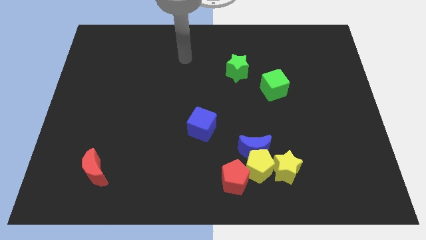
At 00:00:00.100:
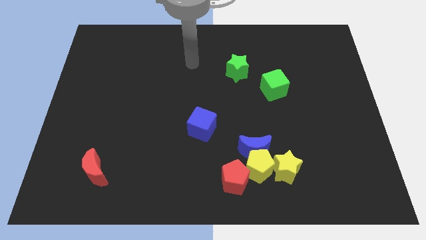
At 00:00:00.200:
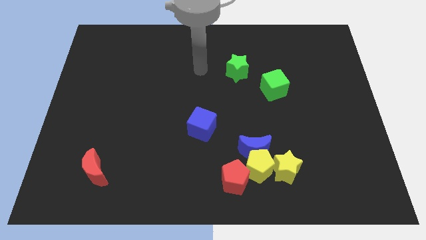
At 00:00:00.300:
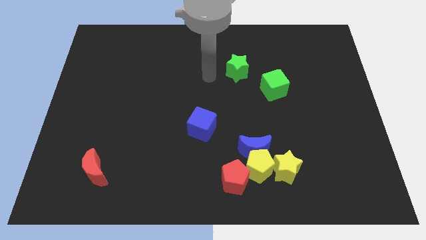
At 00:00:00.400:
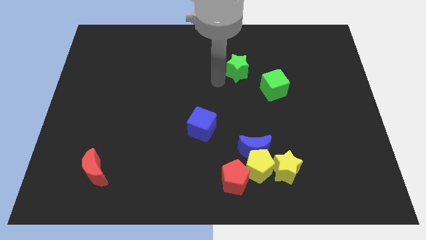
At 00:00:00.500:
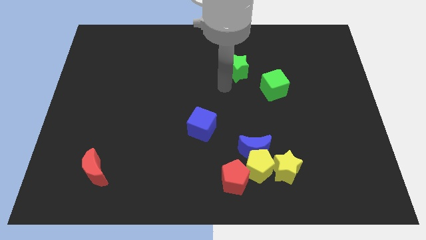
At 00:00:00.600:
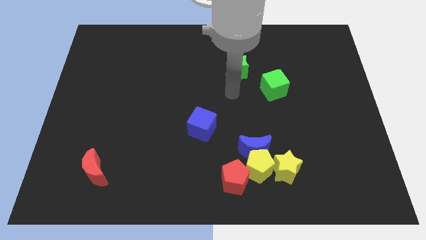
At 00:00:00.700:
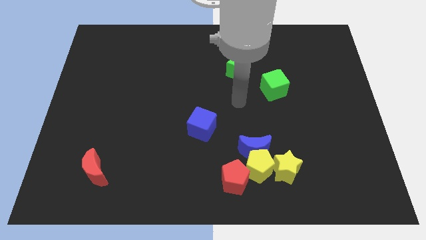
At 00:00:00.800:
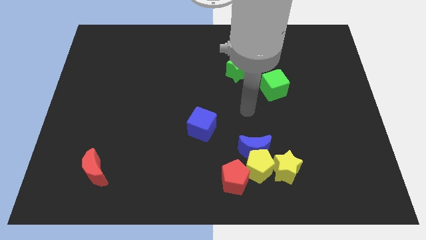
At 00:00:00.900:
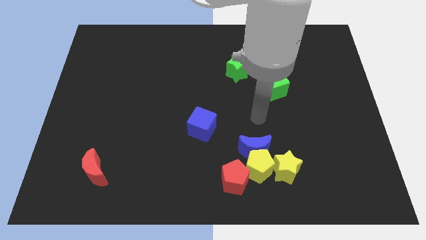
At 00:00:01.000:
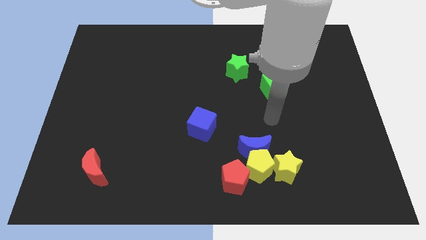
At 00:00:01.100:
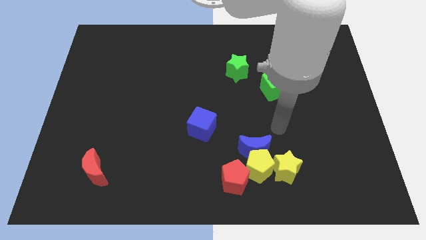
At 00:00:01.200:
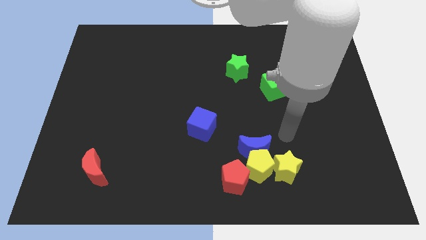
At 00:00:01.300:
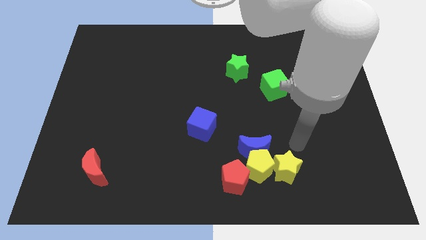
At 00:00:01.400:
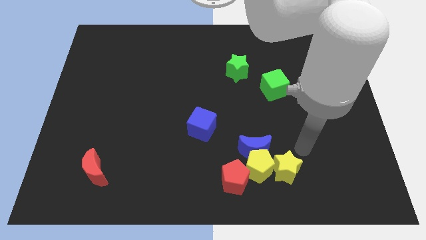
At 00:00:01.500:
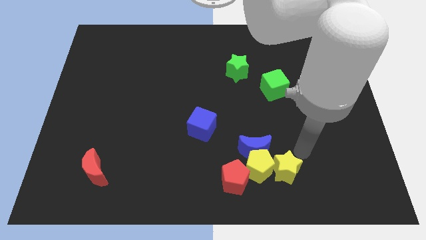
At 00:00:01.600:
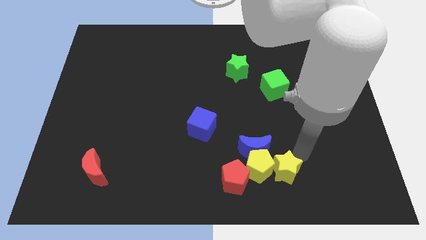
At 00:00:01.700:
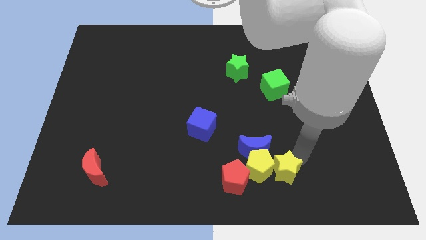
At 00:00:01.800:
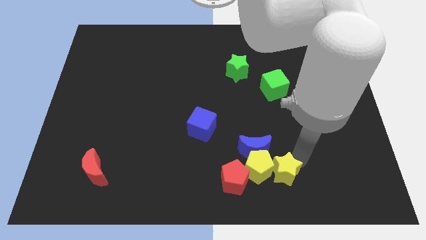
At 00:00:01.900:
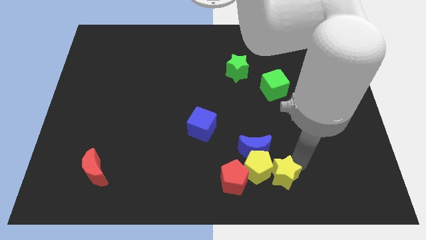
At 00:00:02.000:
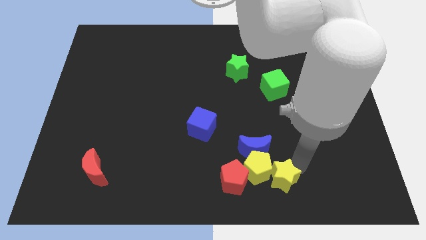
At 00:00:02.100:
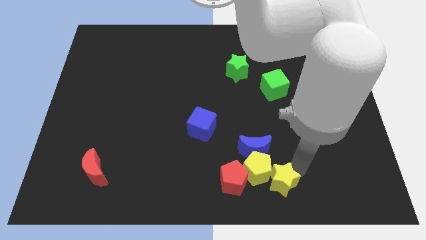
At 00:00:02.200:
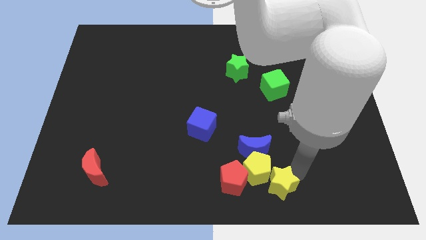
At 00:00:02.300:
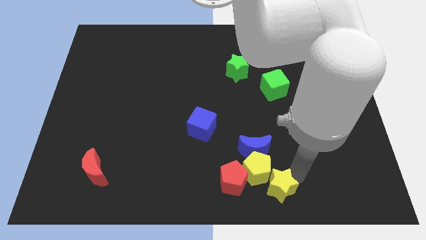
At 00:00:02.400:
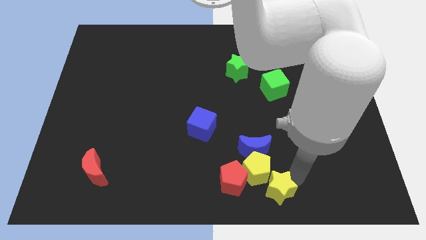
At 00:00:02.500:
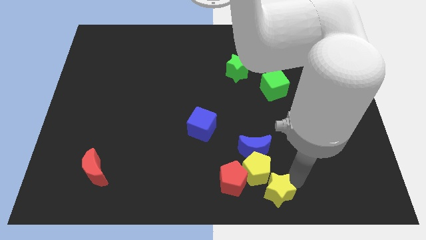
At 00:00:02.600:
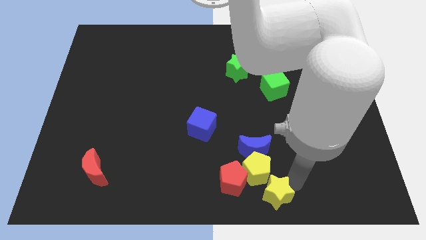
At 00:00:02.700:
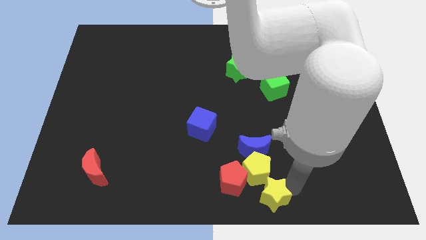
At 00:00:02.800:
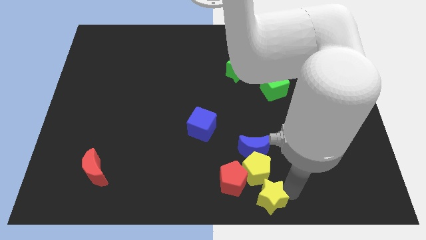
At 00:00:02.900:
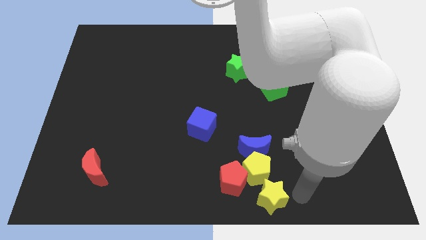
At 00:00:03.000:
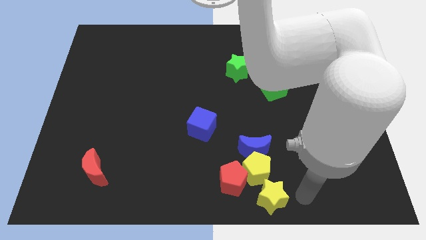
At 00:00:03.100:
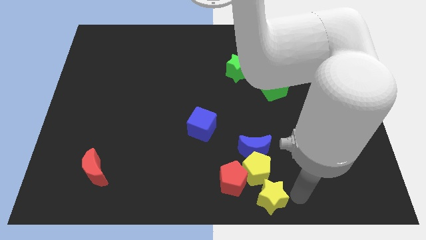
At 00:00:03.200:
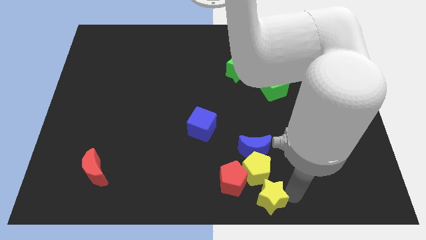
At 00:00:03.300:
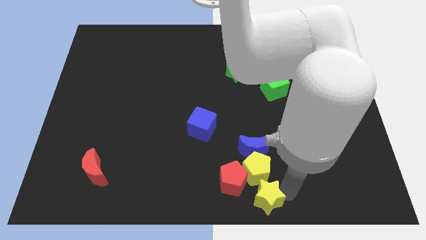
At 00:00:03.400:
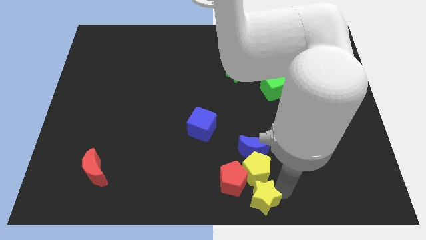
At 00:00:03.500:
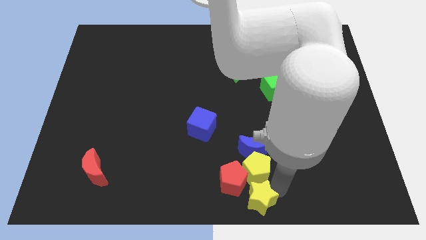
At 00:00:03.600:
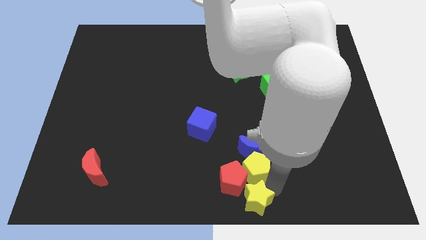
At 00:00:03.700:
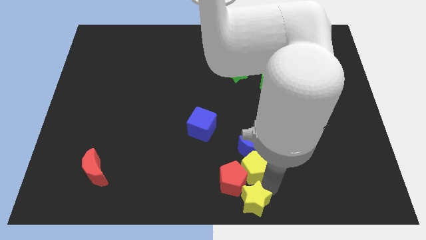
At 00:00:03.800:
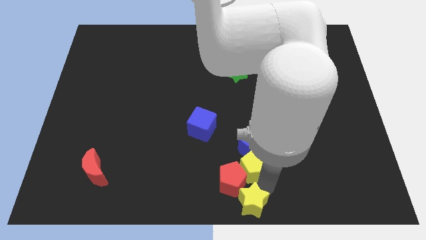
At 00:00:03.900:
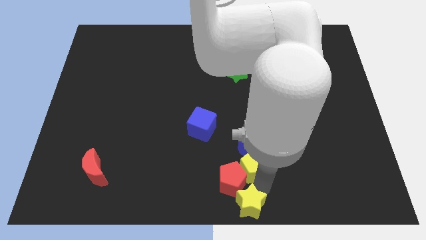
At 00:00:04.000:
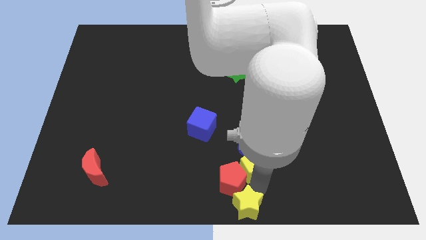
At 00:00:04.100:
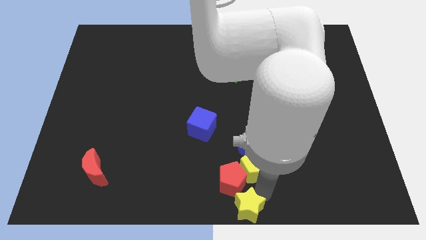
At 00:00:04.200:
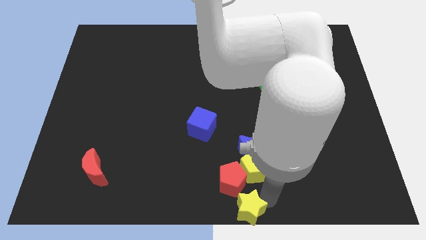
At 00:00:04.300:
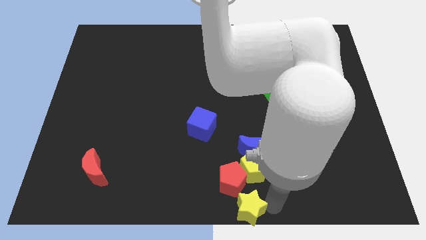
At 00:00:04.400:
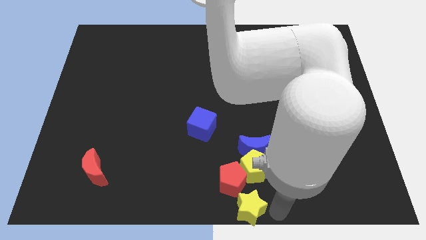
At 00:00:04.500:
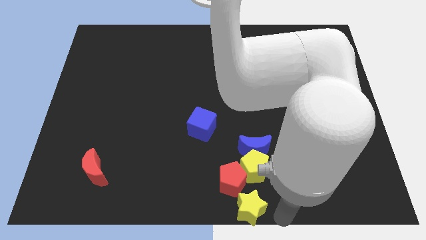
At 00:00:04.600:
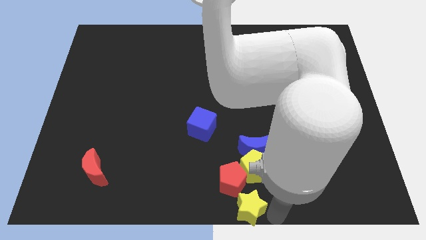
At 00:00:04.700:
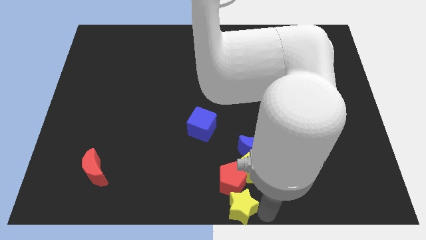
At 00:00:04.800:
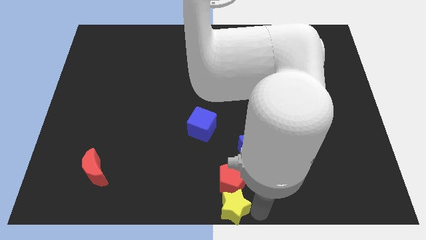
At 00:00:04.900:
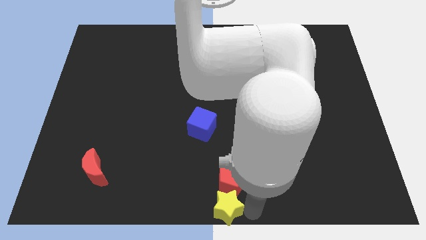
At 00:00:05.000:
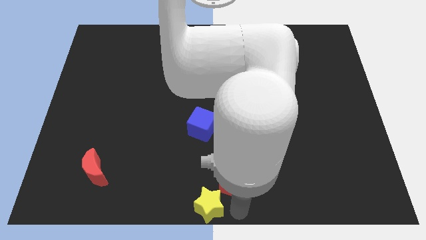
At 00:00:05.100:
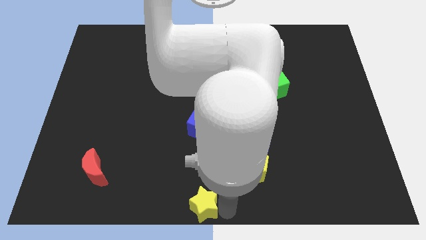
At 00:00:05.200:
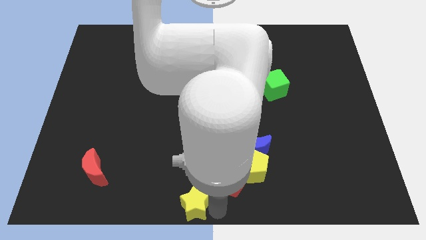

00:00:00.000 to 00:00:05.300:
put the yellow star just left of the red pentagon

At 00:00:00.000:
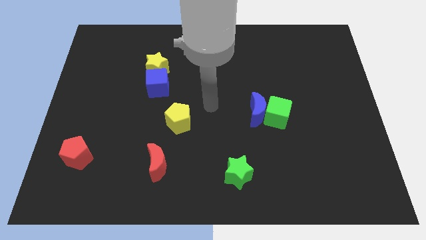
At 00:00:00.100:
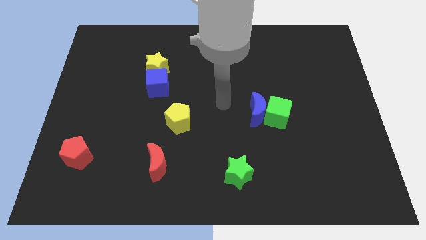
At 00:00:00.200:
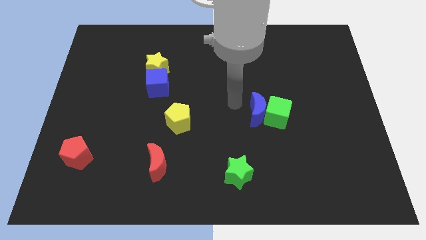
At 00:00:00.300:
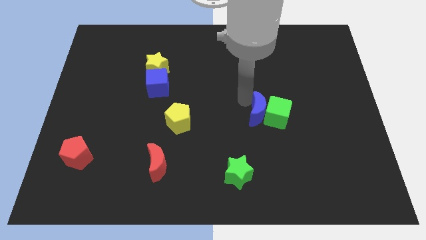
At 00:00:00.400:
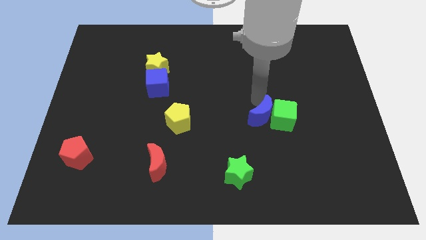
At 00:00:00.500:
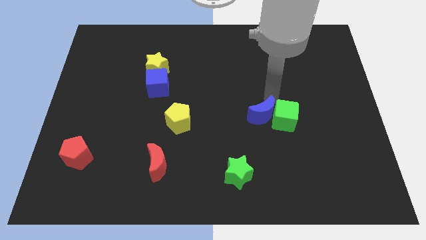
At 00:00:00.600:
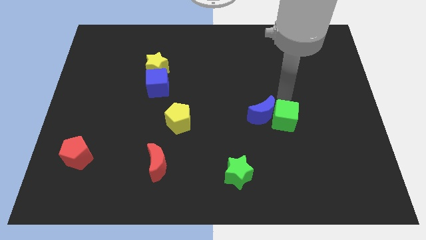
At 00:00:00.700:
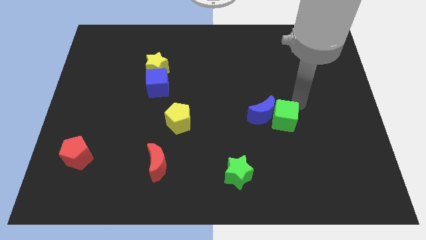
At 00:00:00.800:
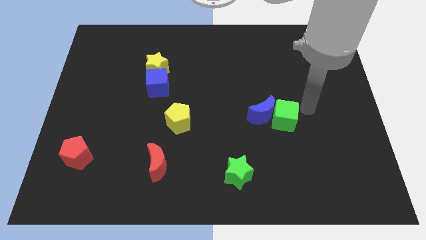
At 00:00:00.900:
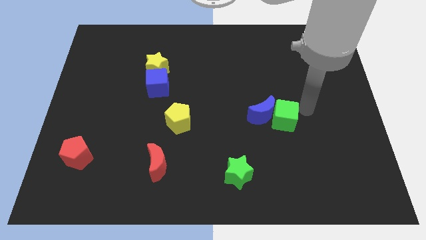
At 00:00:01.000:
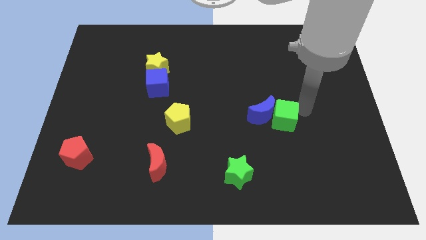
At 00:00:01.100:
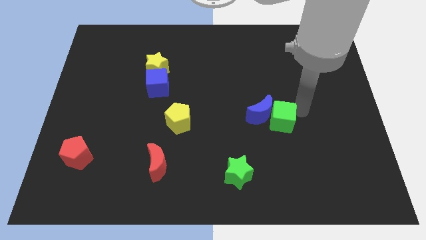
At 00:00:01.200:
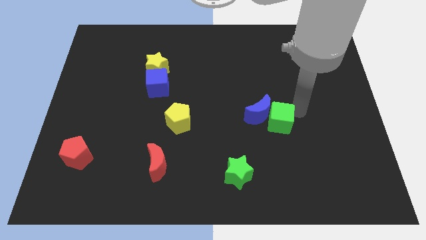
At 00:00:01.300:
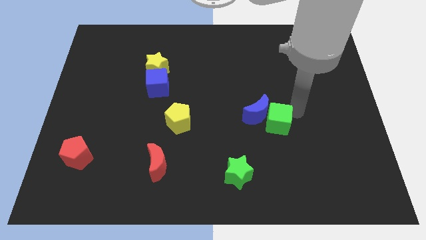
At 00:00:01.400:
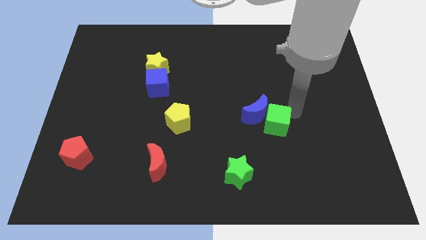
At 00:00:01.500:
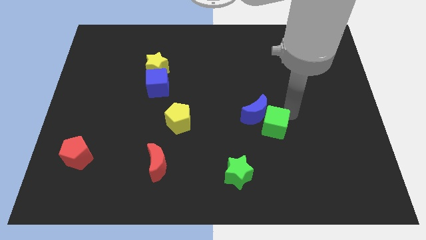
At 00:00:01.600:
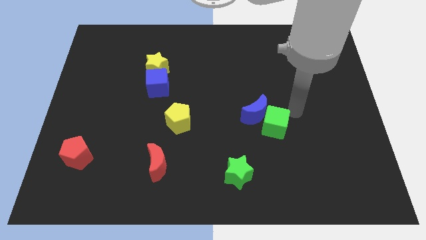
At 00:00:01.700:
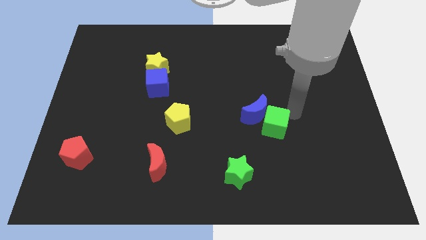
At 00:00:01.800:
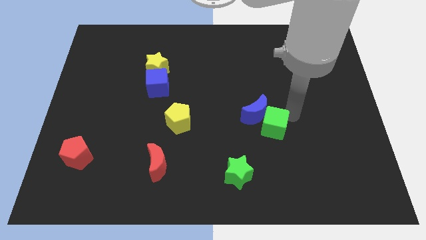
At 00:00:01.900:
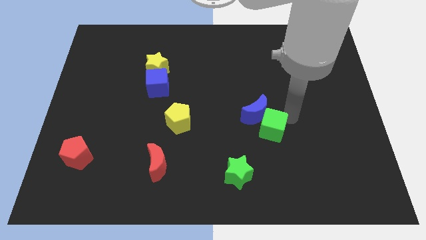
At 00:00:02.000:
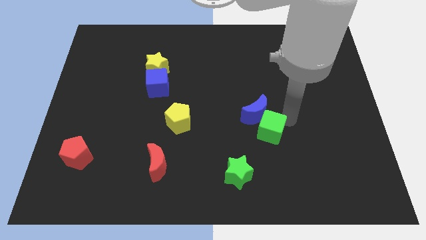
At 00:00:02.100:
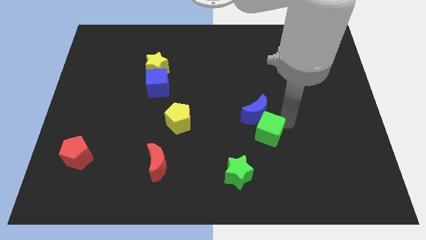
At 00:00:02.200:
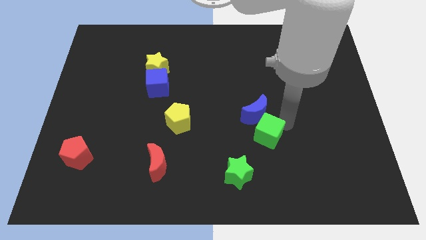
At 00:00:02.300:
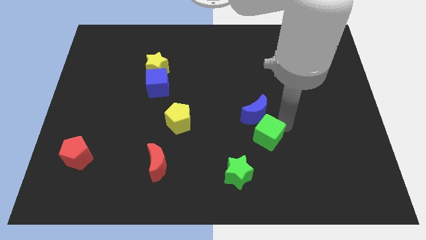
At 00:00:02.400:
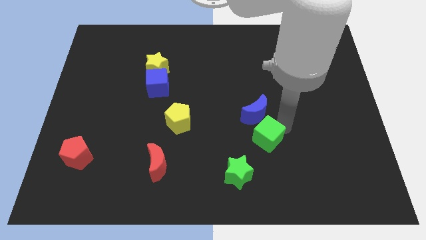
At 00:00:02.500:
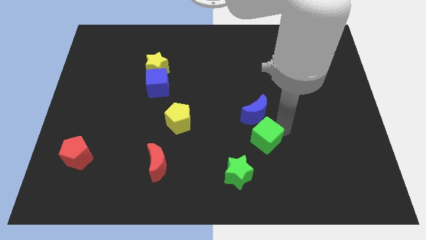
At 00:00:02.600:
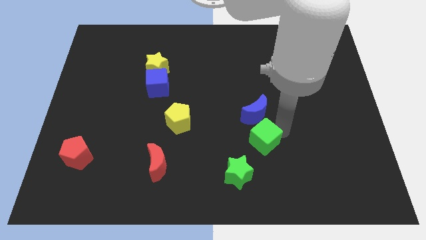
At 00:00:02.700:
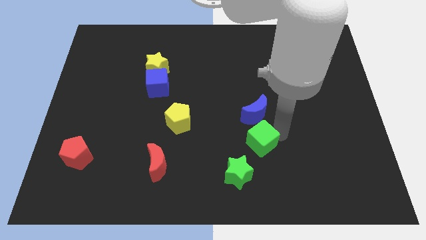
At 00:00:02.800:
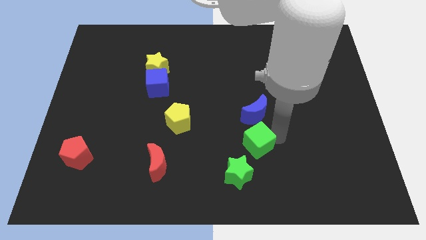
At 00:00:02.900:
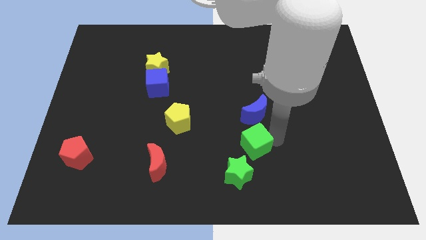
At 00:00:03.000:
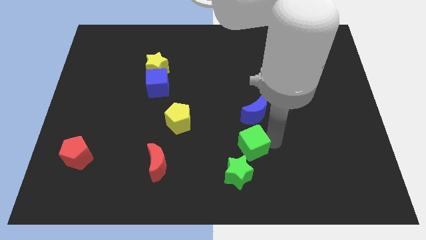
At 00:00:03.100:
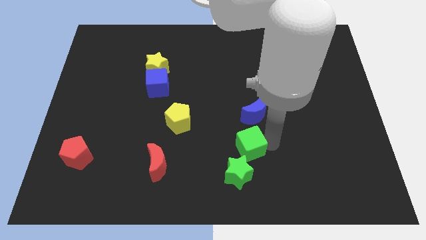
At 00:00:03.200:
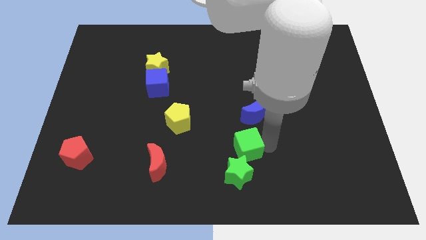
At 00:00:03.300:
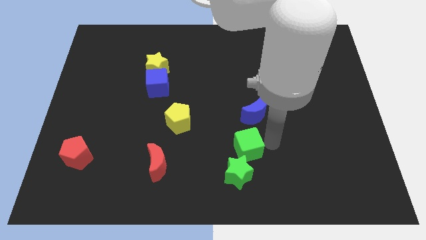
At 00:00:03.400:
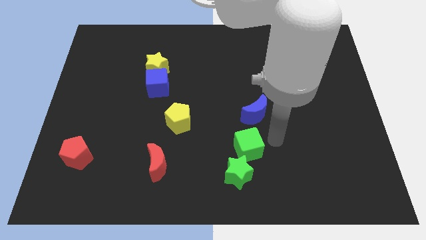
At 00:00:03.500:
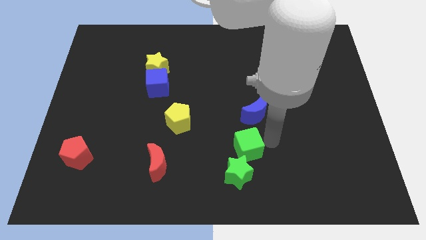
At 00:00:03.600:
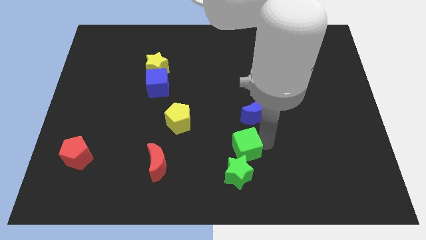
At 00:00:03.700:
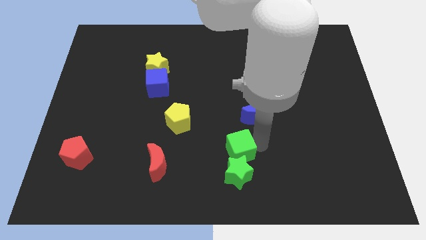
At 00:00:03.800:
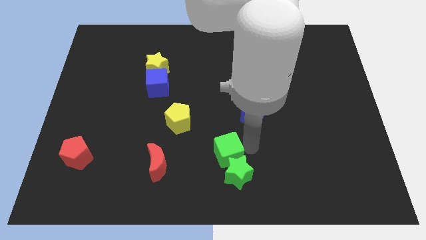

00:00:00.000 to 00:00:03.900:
slide the green cube just right of the red moon
